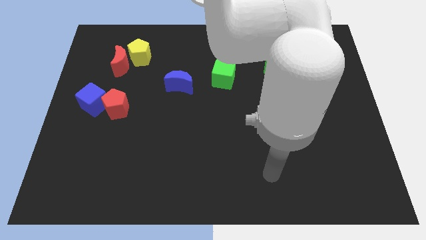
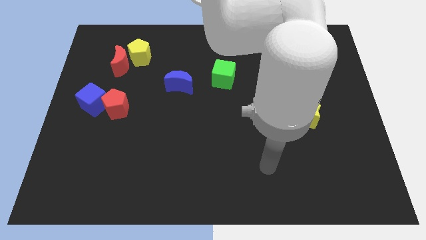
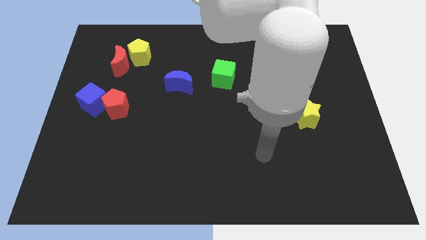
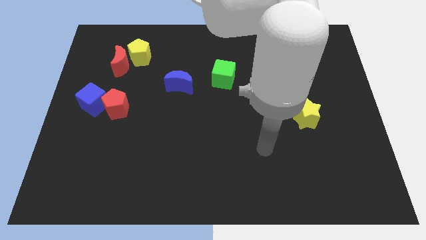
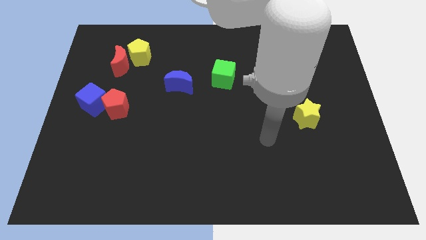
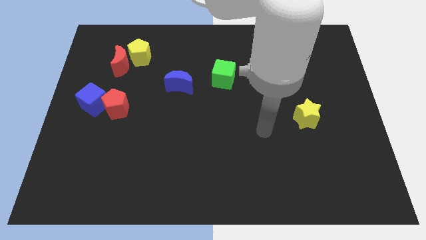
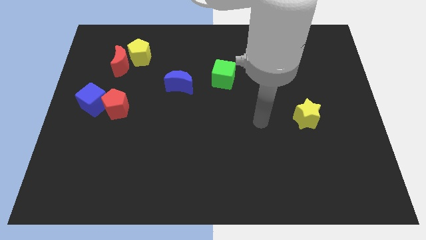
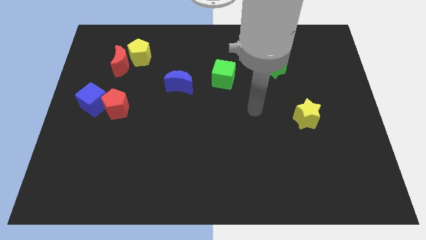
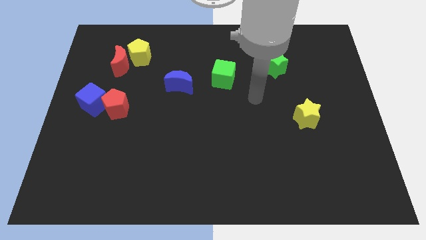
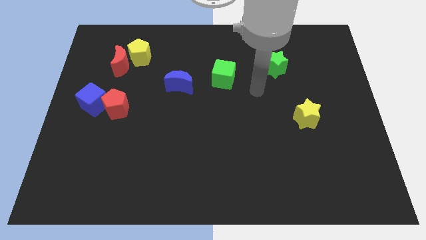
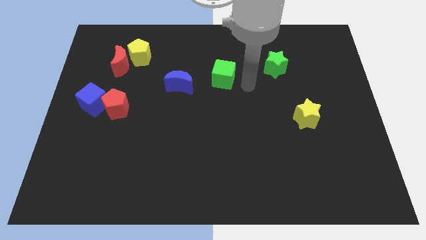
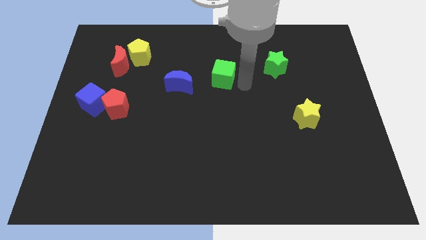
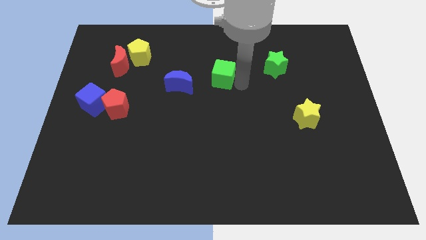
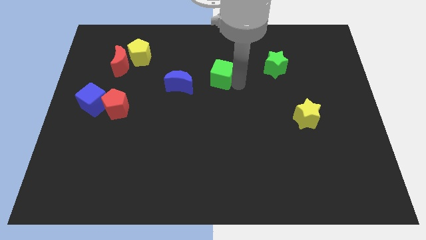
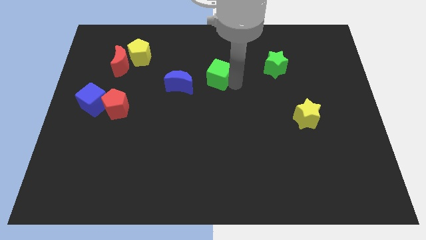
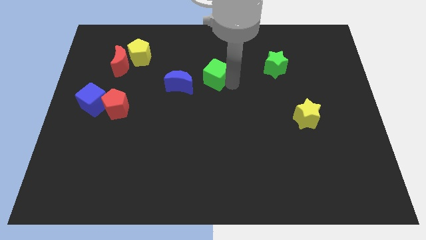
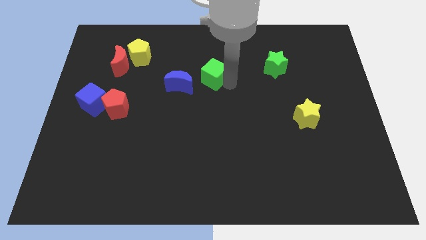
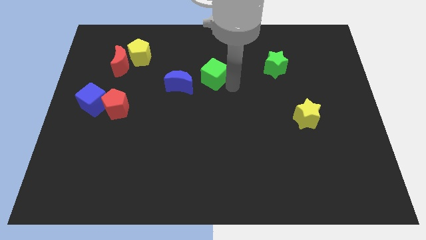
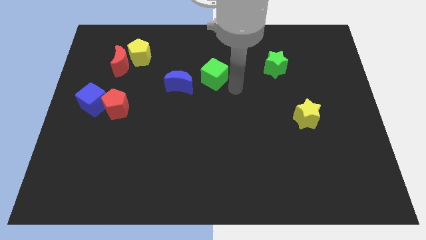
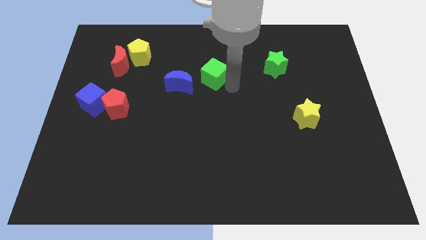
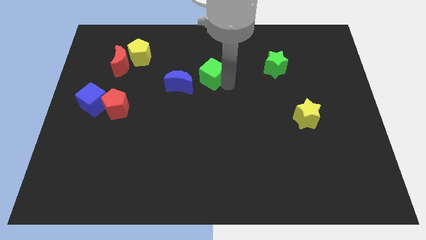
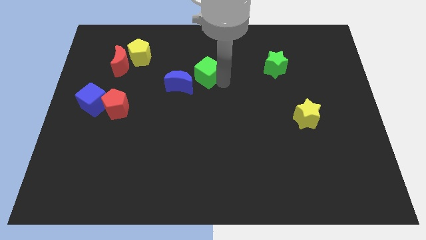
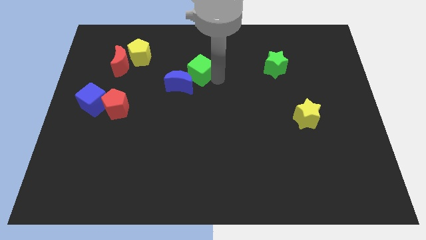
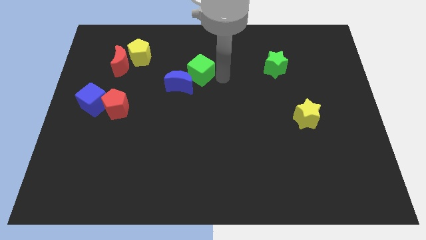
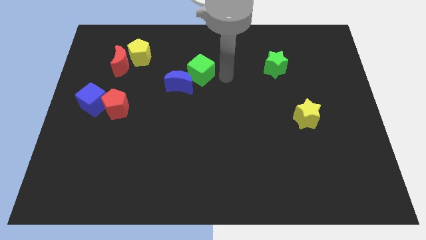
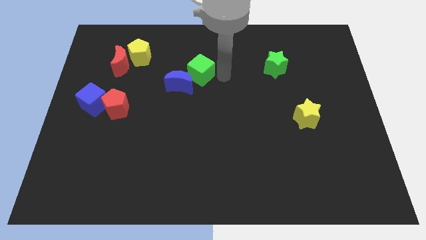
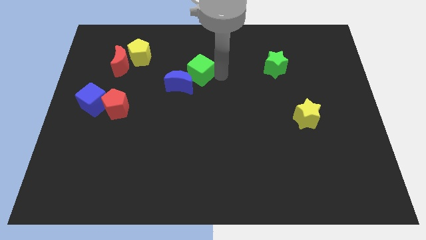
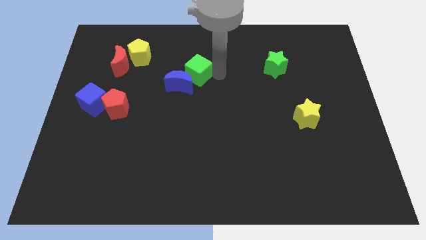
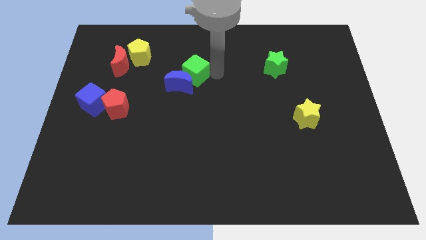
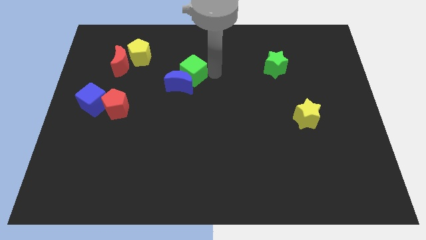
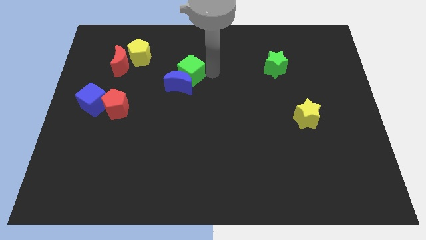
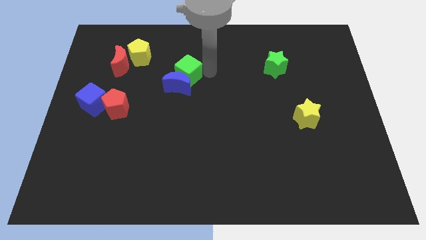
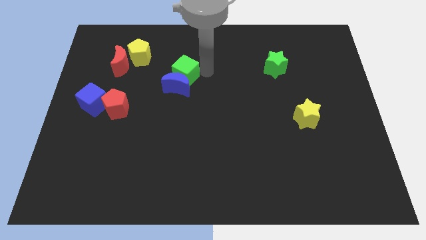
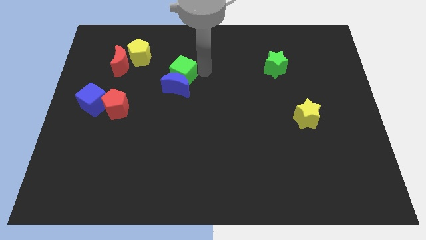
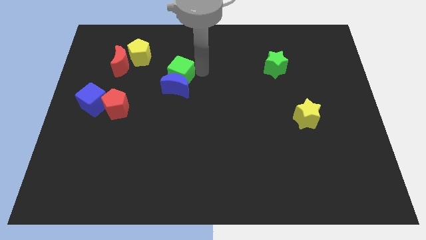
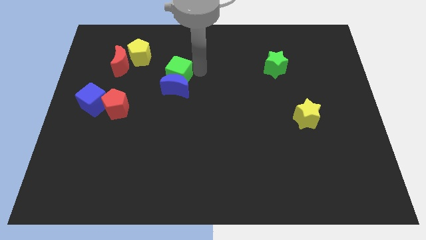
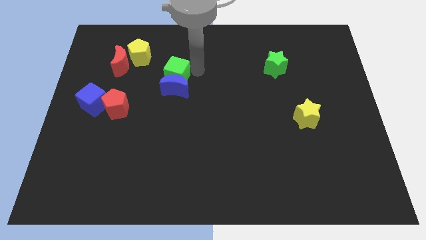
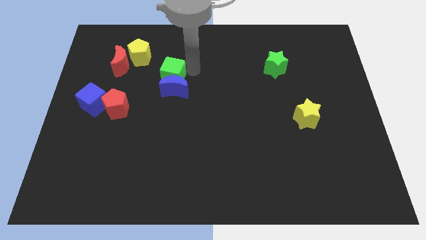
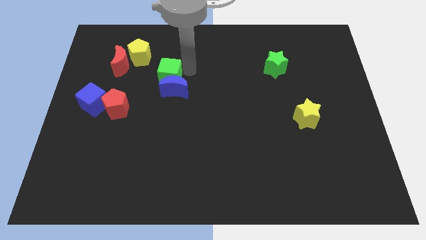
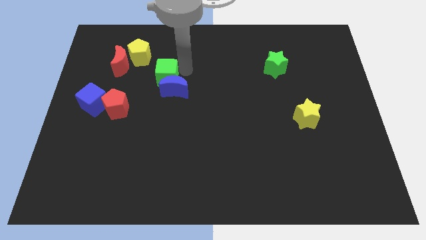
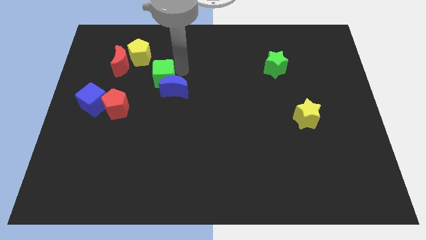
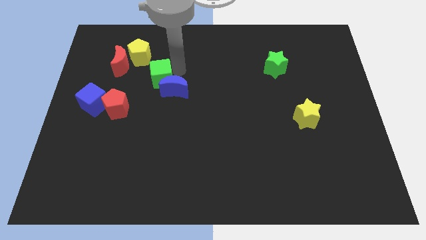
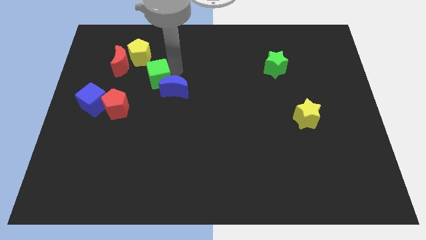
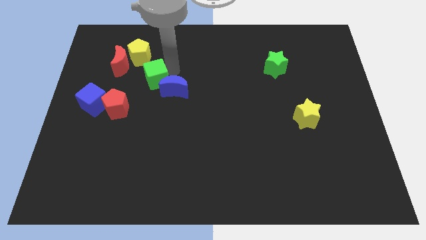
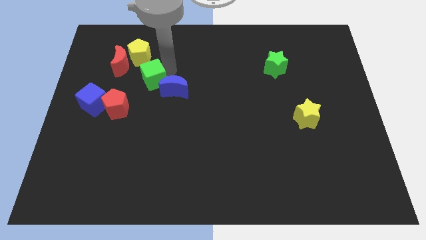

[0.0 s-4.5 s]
slide the green cube below the yellow pentagon

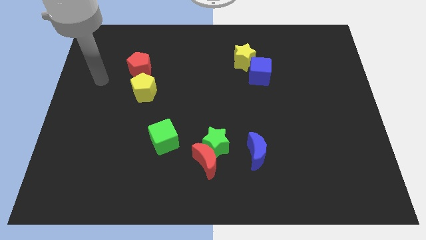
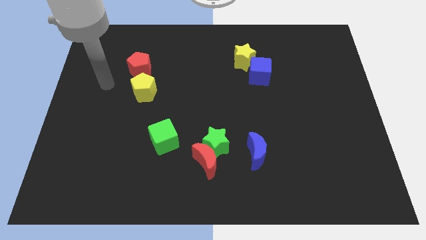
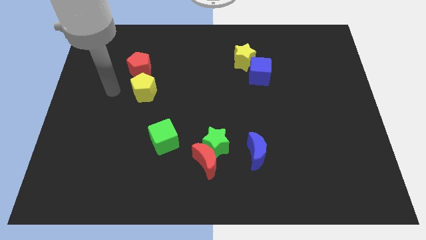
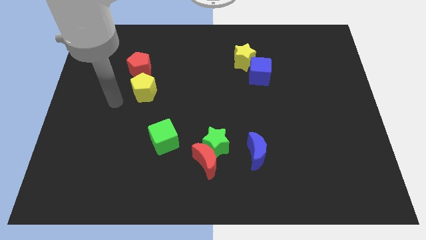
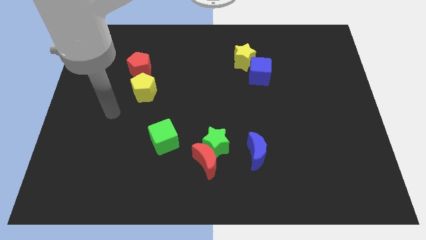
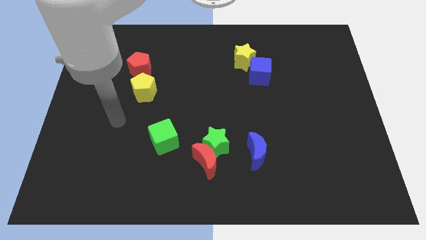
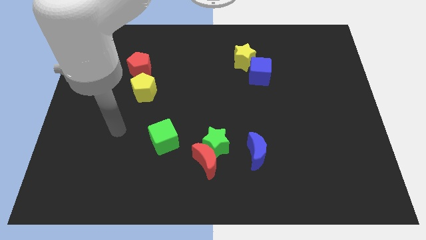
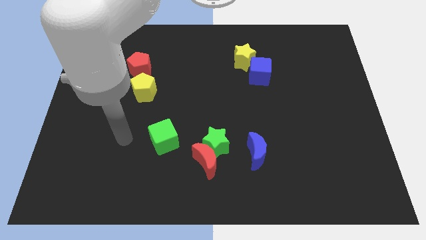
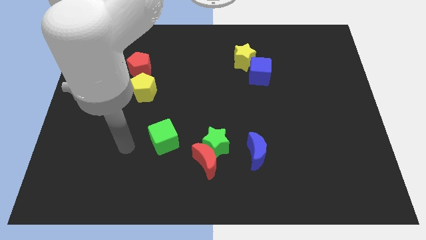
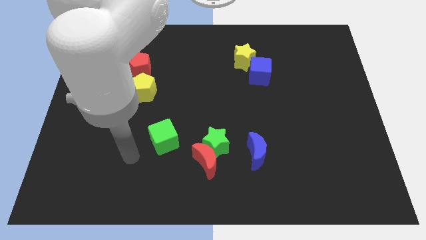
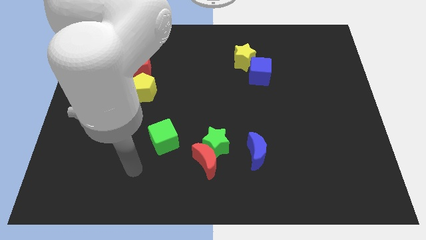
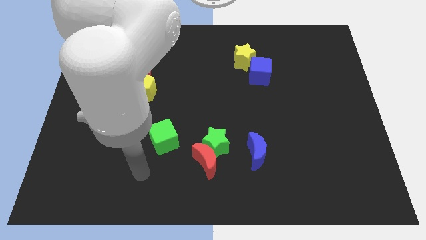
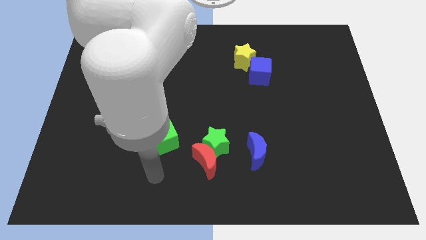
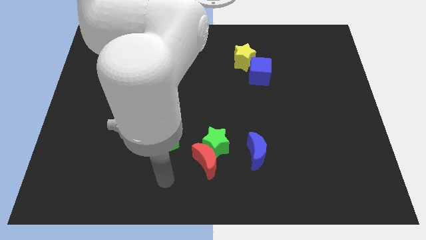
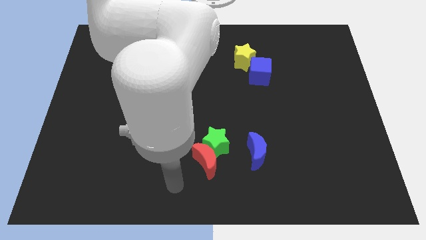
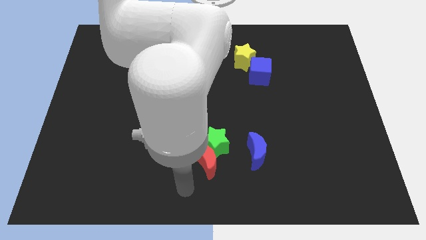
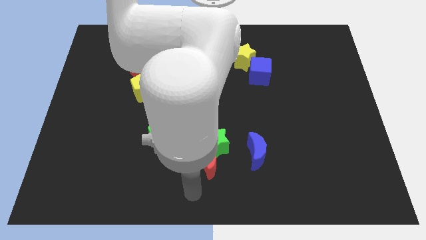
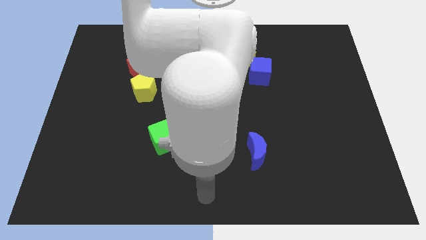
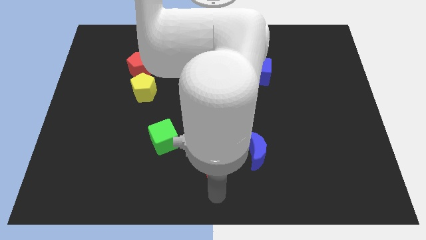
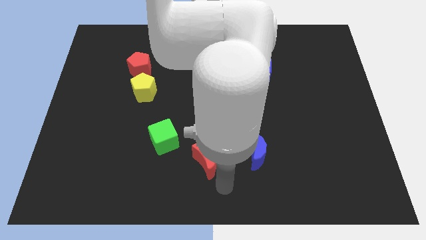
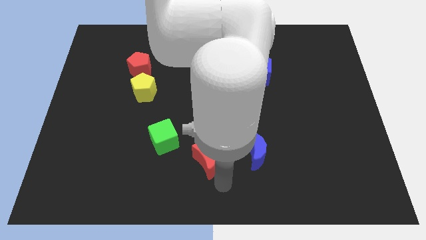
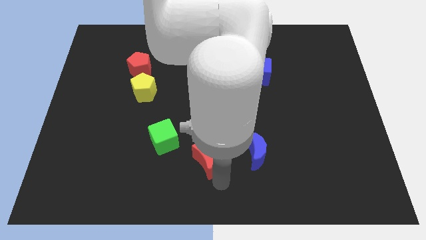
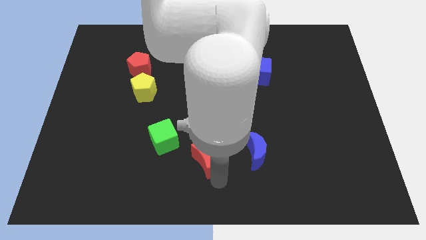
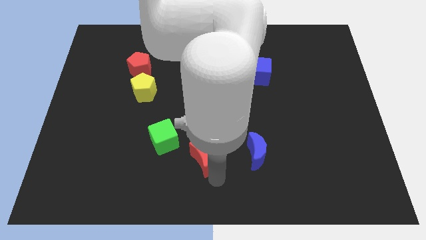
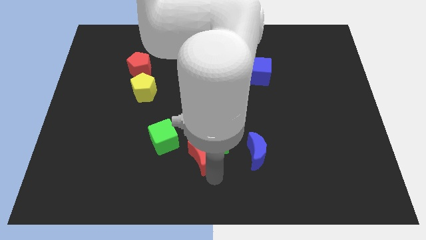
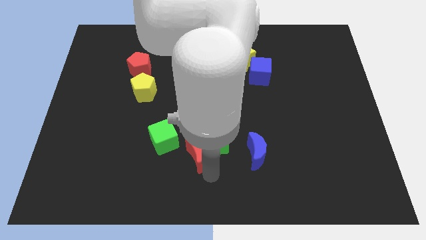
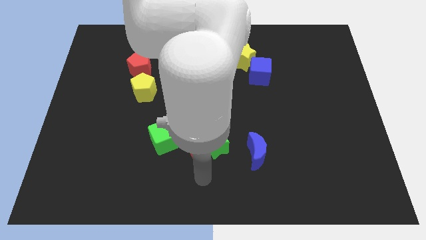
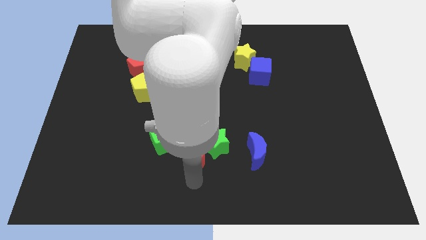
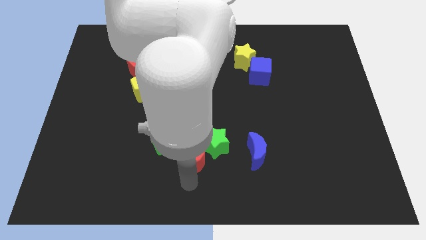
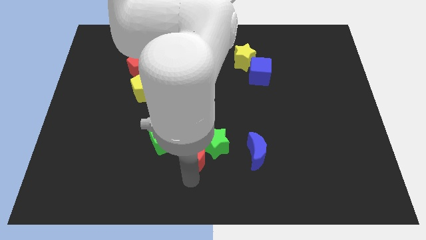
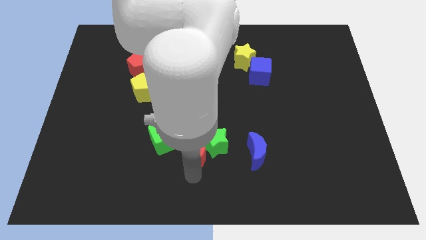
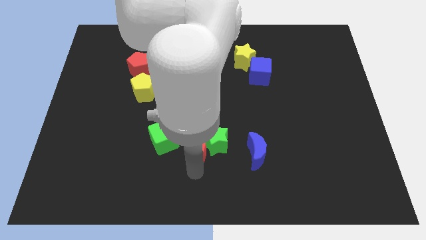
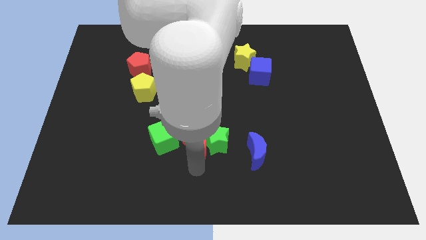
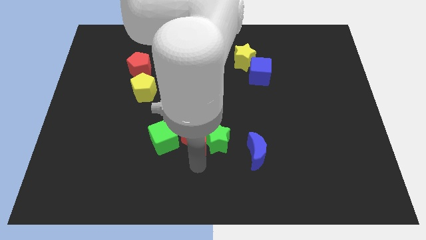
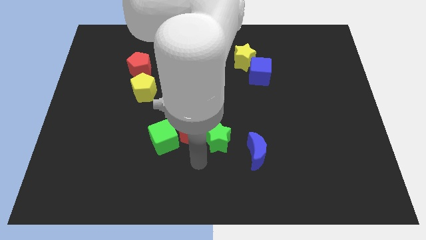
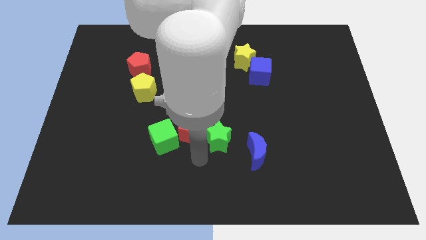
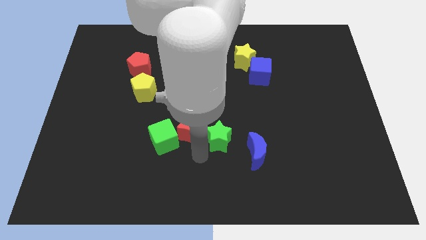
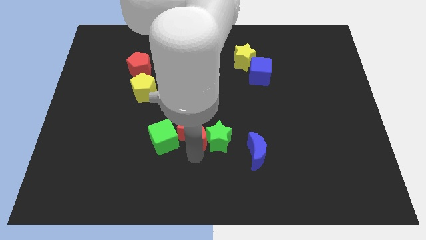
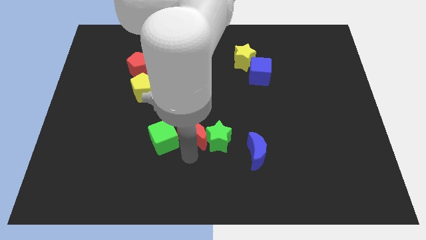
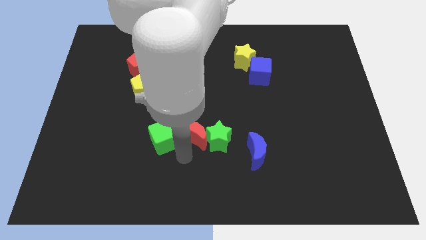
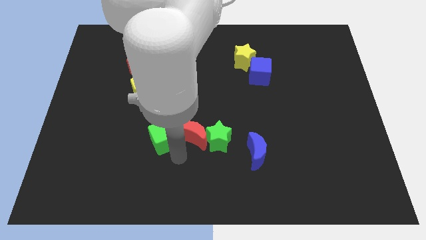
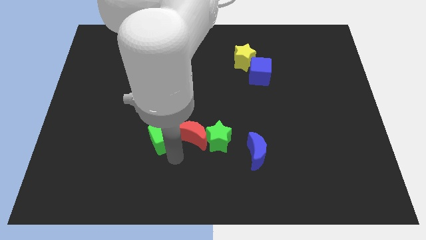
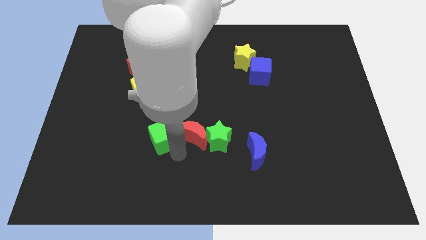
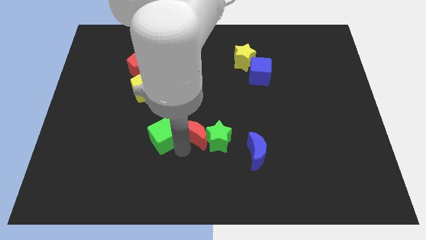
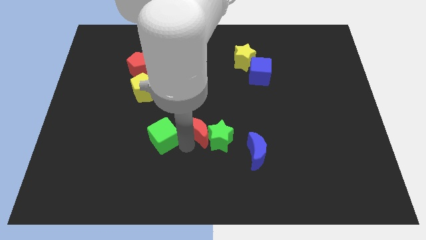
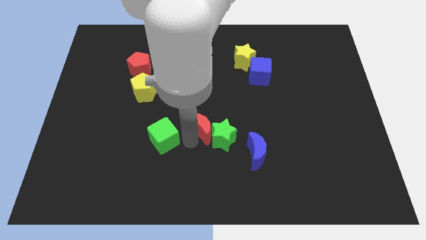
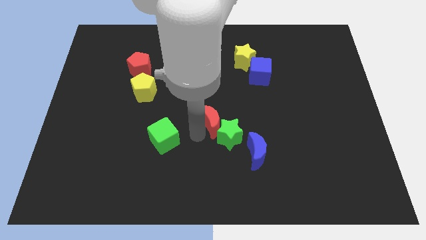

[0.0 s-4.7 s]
put the red moon above the green star
